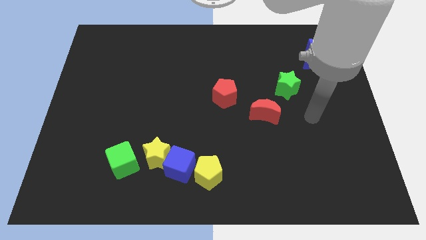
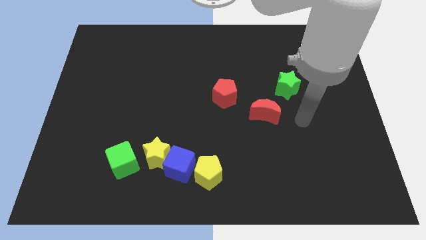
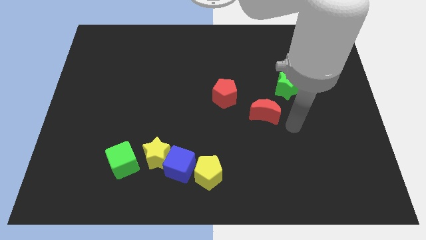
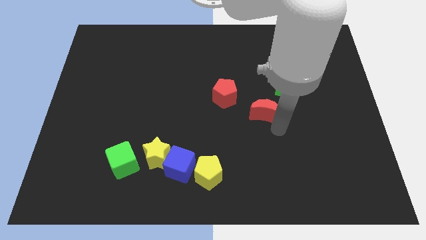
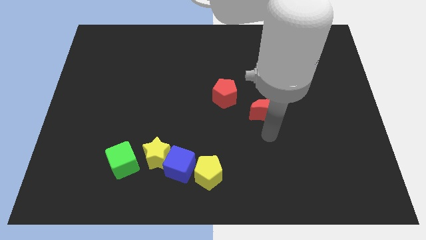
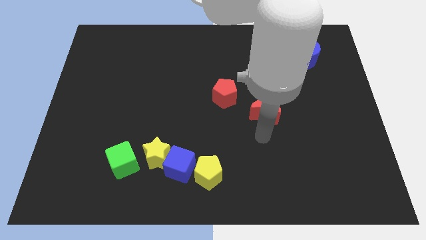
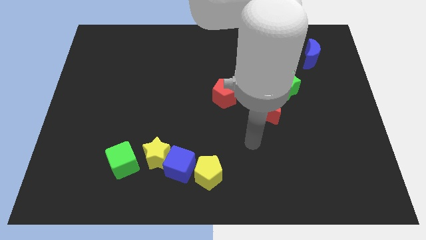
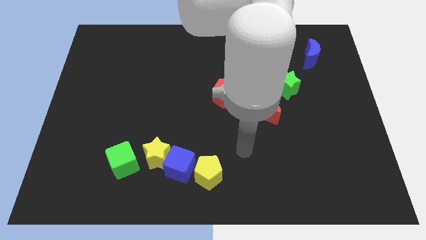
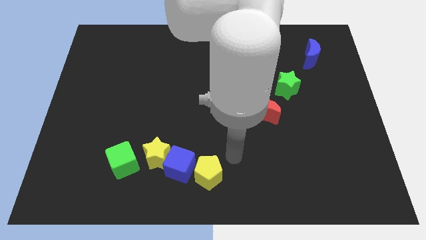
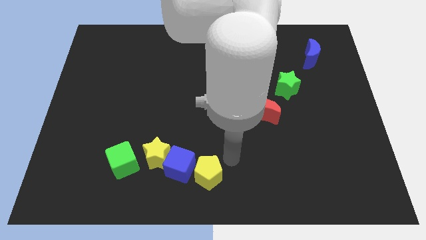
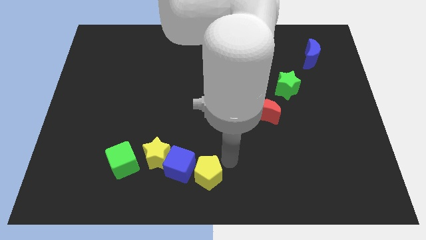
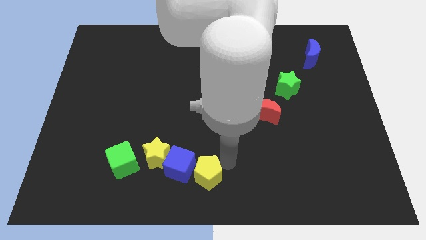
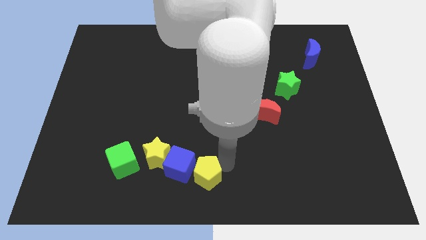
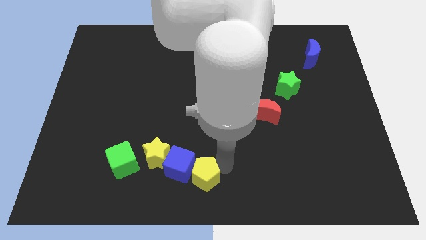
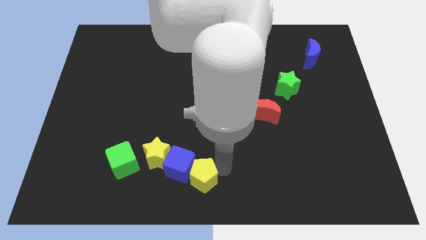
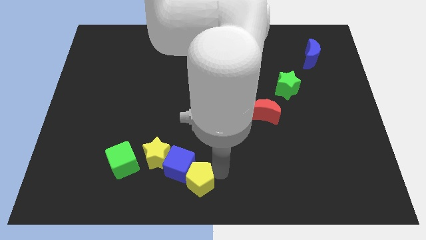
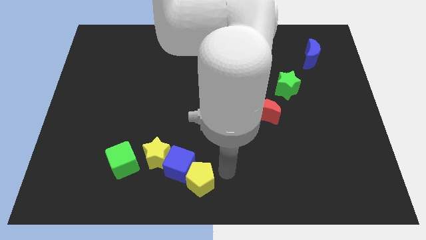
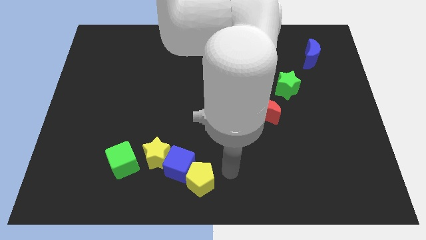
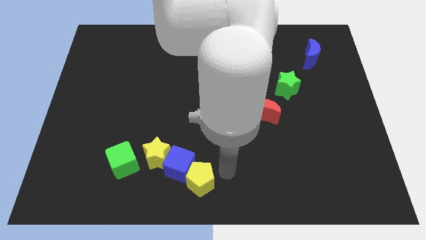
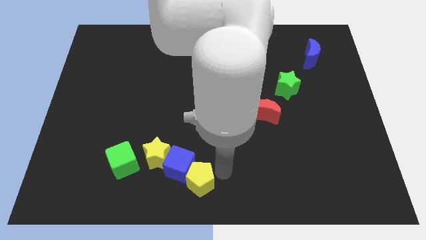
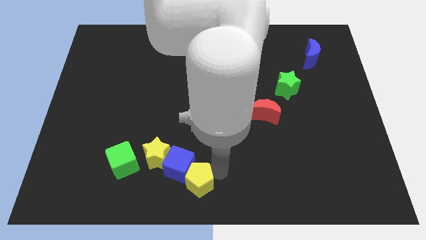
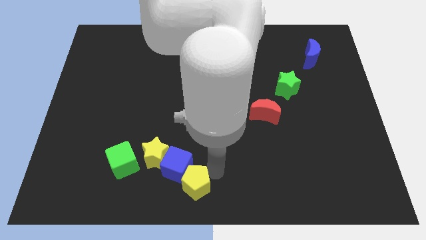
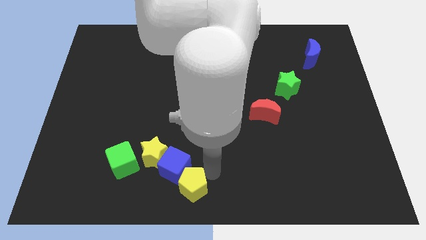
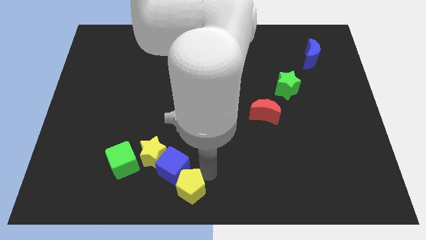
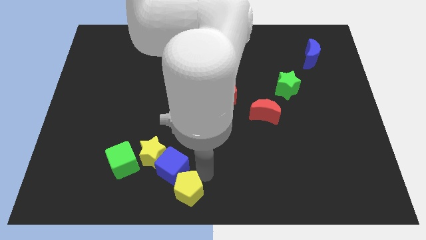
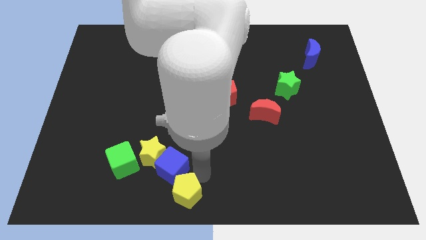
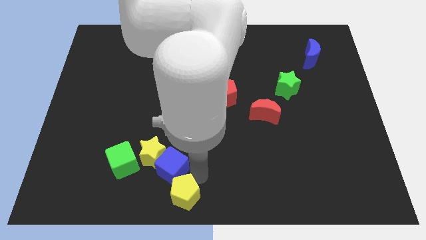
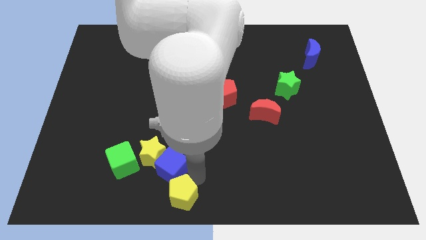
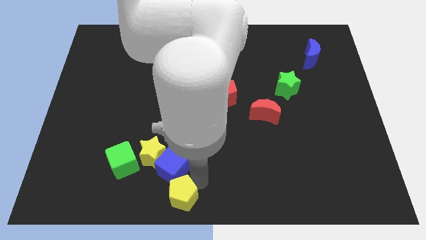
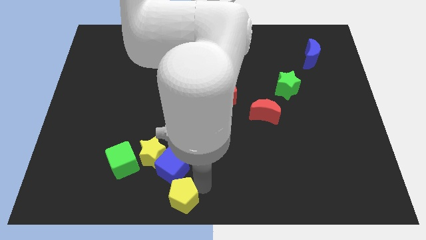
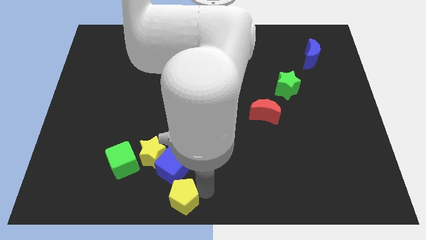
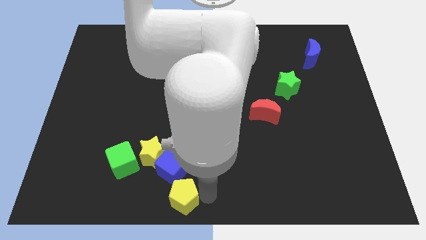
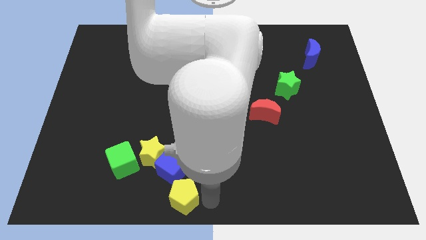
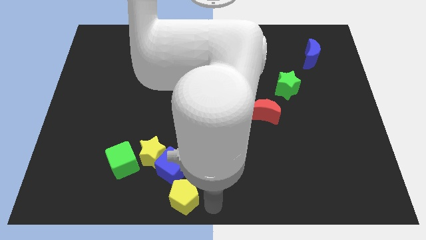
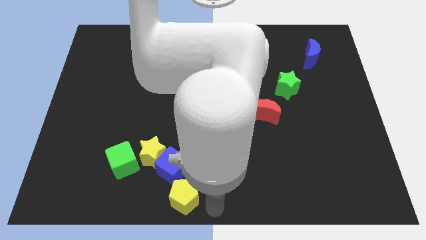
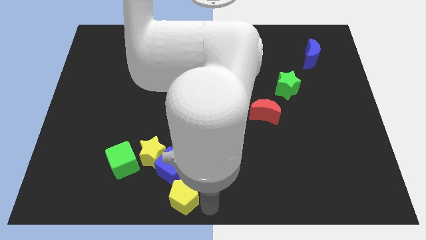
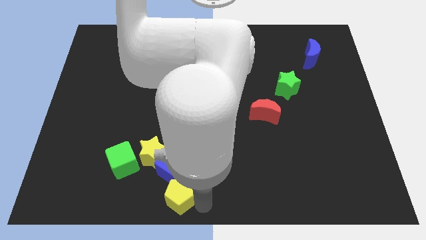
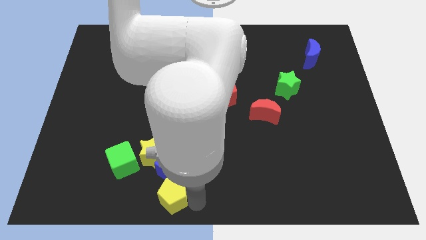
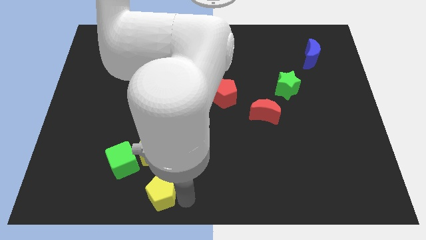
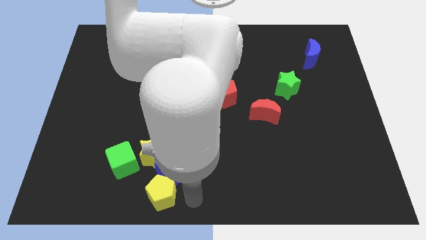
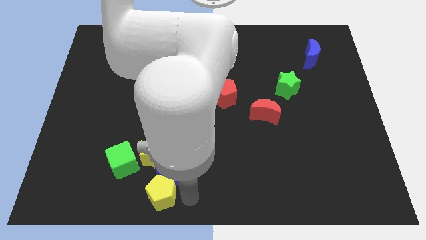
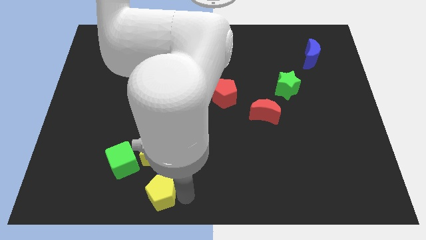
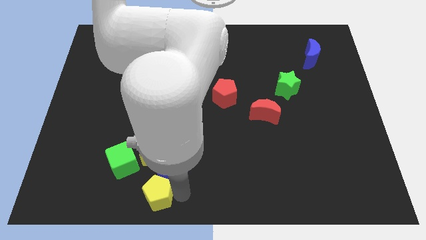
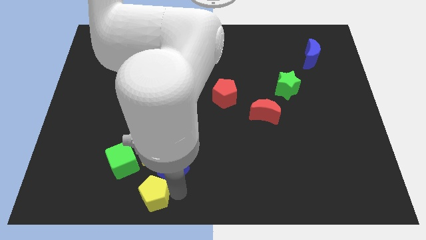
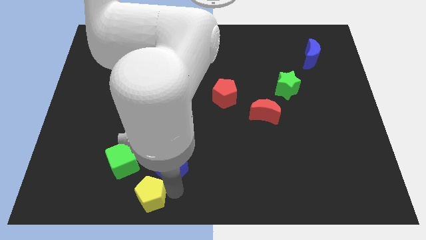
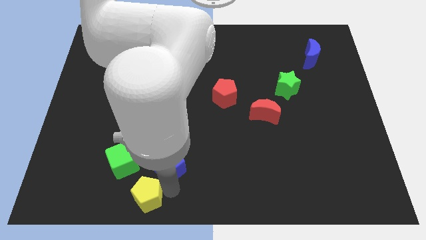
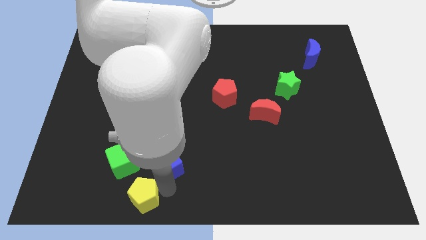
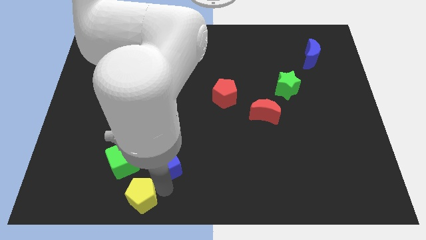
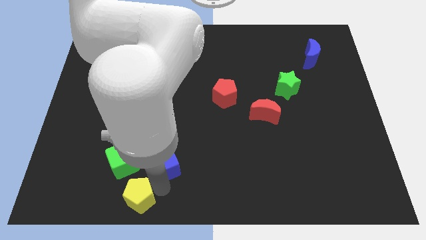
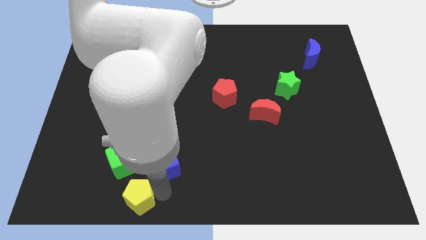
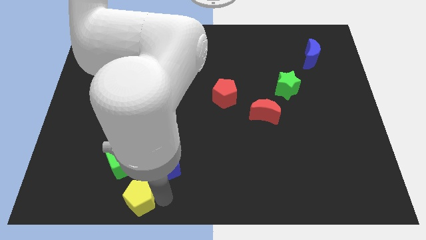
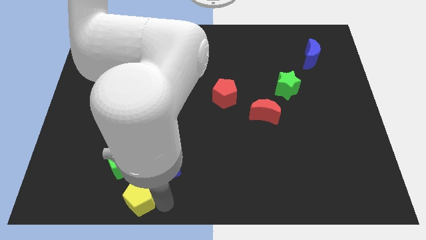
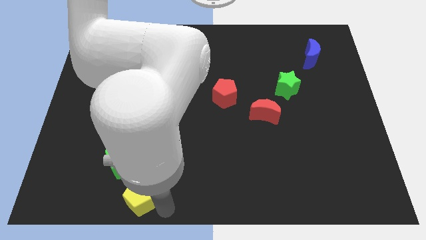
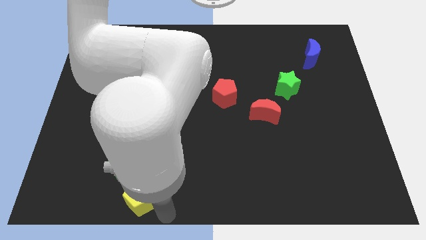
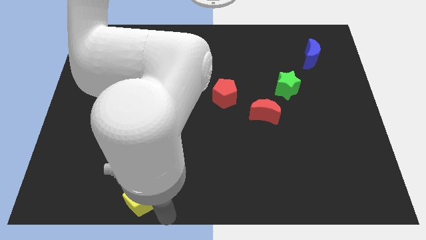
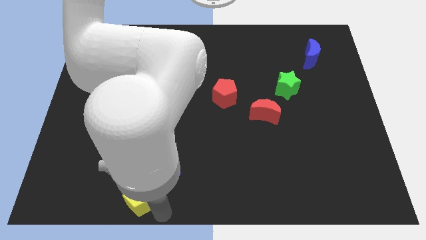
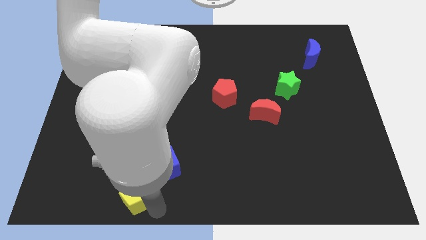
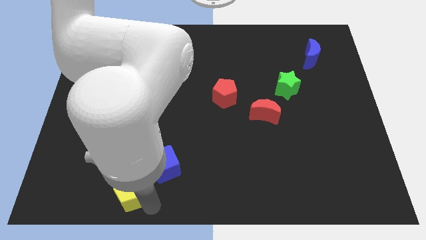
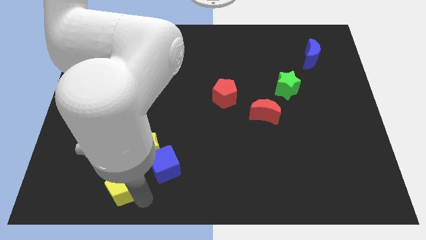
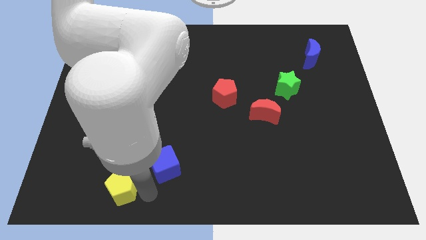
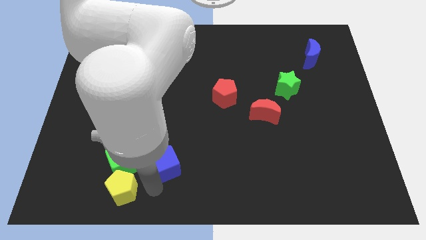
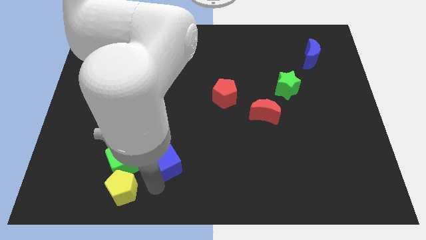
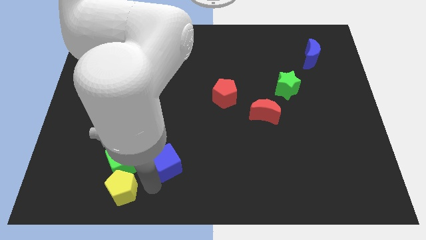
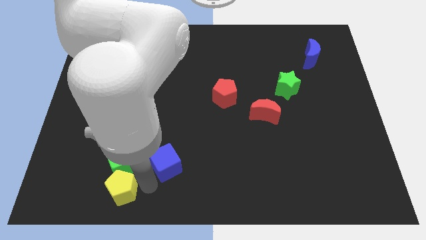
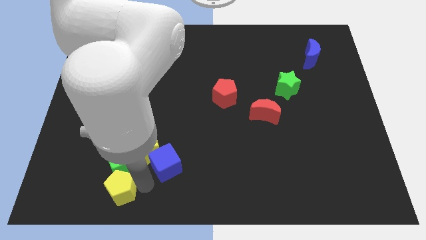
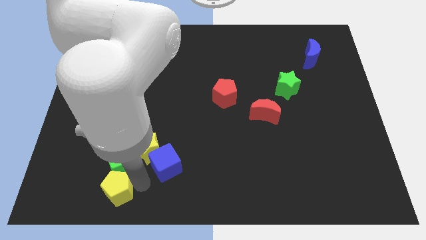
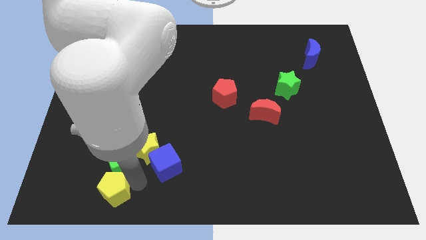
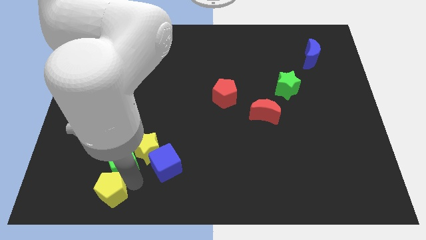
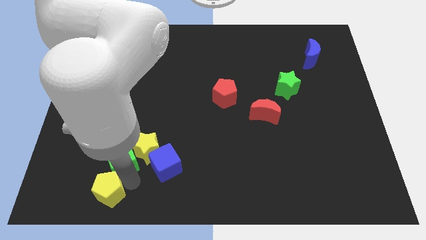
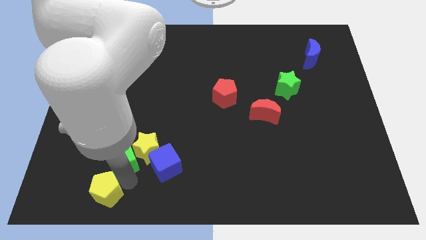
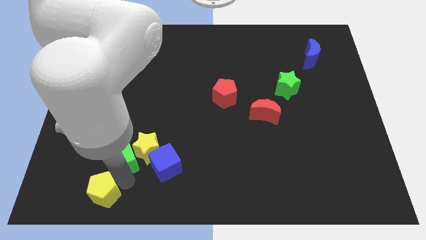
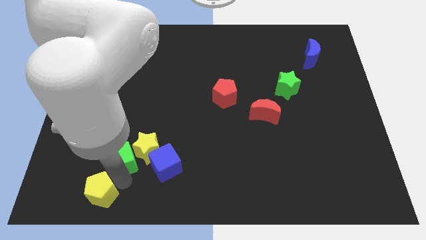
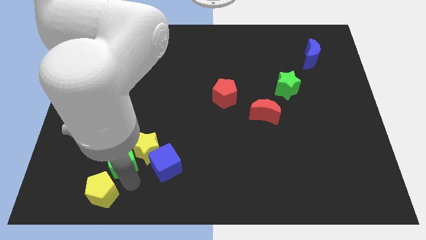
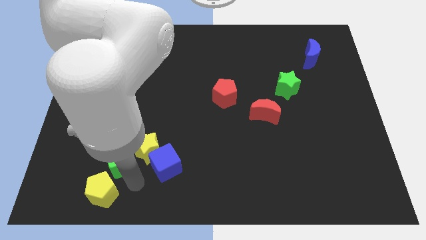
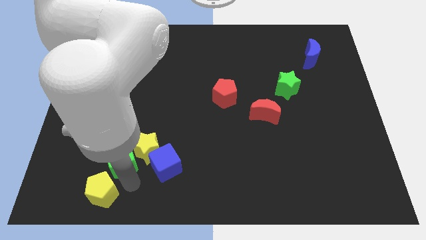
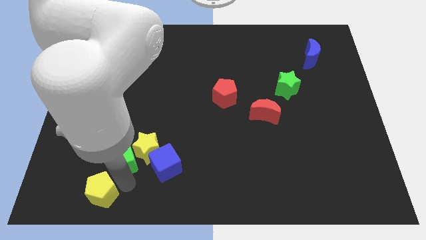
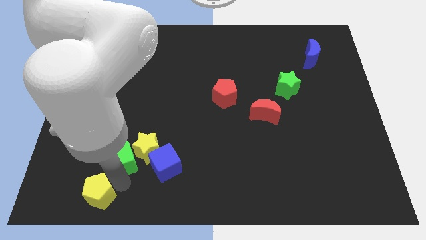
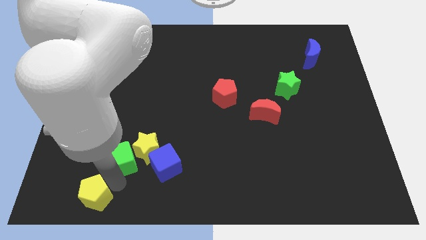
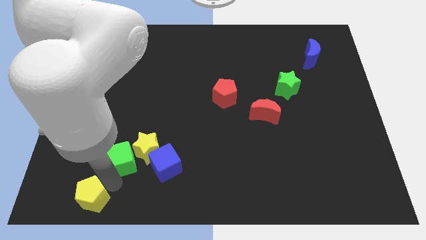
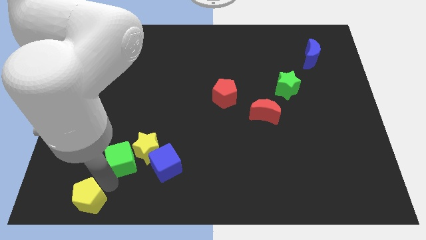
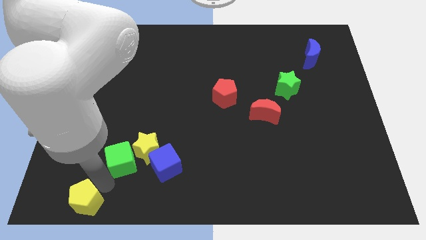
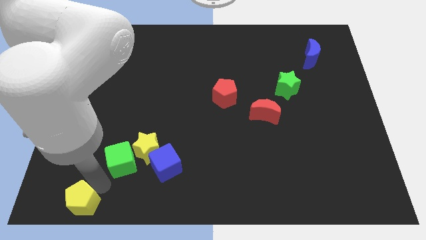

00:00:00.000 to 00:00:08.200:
slide the yellow pentagon to the bottom left corner

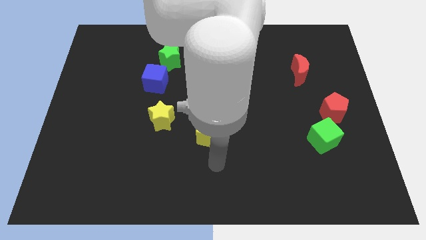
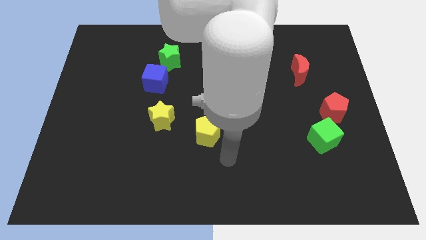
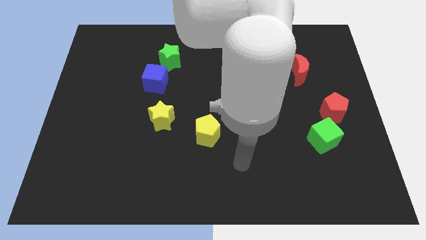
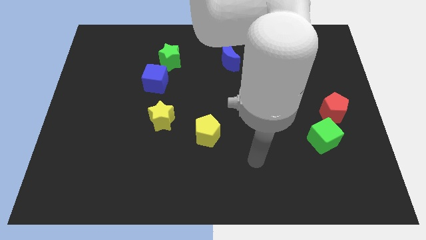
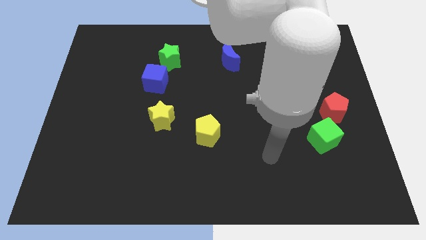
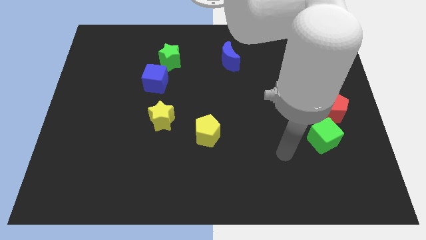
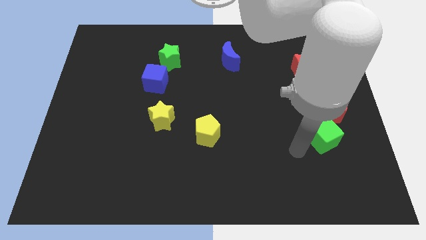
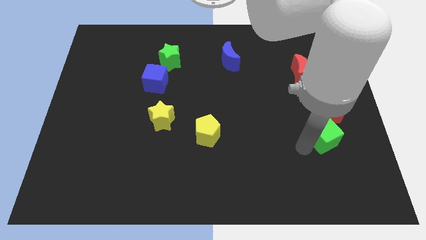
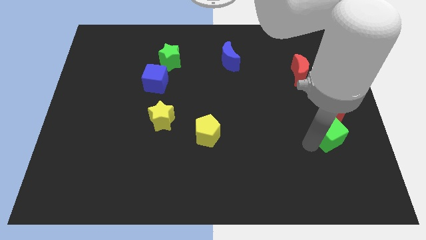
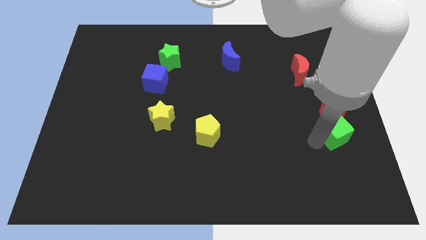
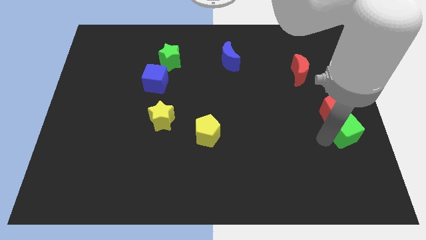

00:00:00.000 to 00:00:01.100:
slide the green cube to the right side of the board
